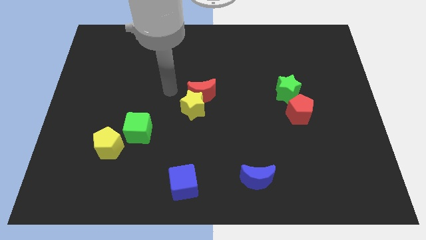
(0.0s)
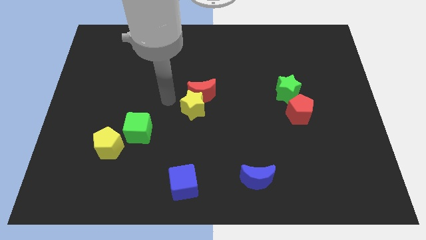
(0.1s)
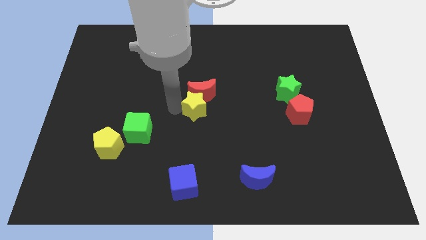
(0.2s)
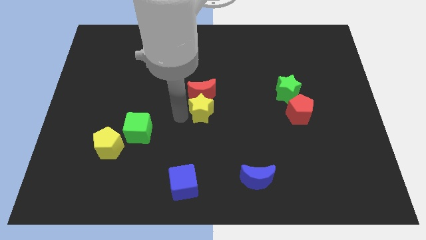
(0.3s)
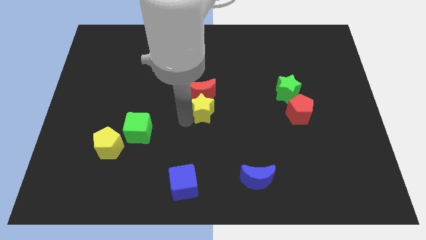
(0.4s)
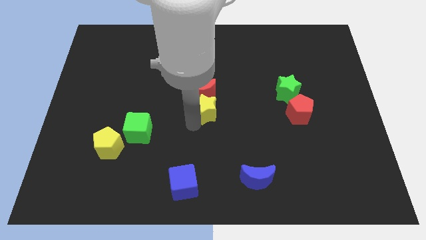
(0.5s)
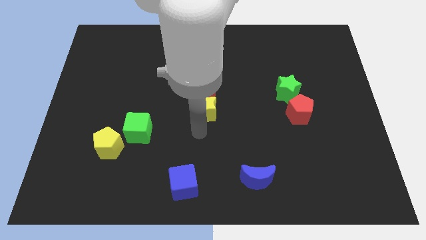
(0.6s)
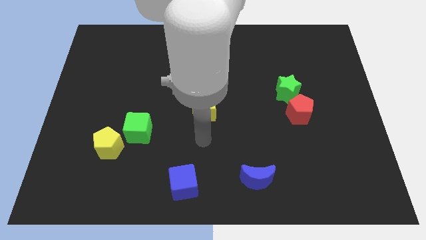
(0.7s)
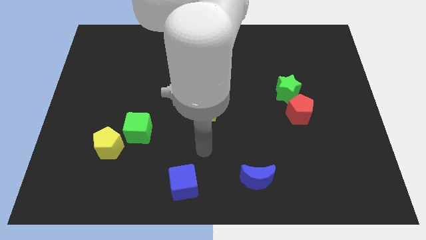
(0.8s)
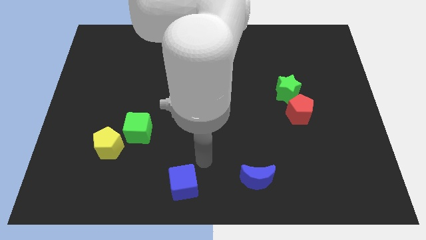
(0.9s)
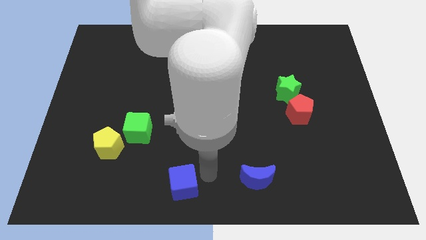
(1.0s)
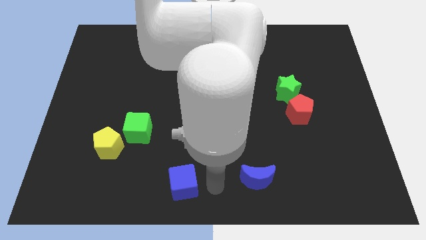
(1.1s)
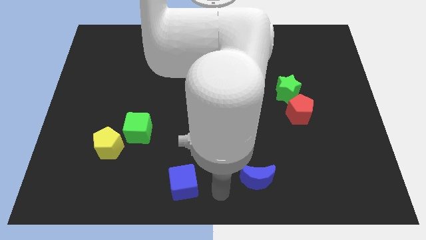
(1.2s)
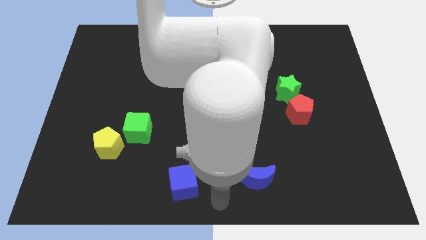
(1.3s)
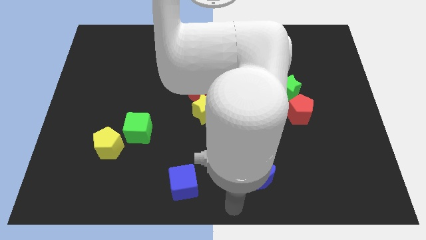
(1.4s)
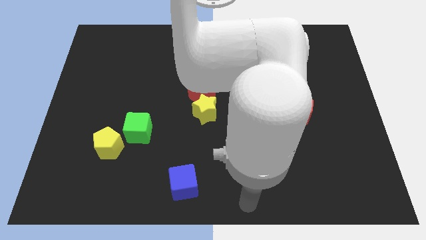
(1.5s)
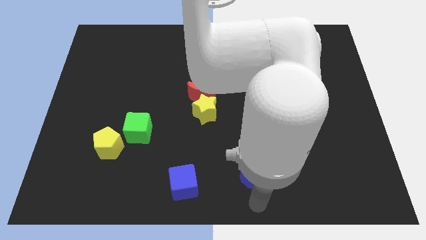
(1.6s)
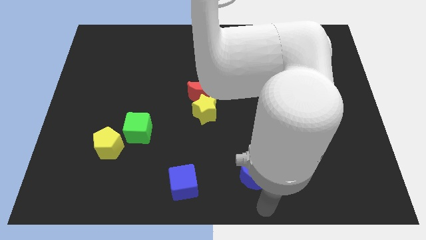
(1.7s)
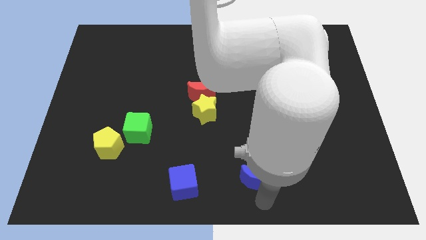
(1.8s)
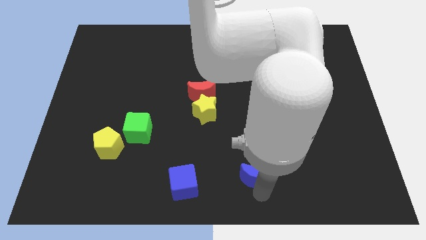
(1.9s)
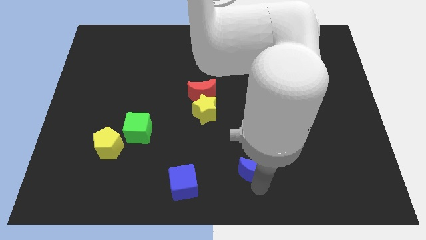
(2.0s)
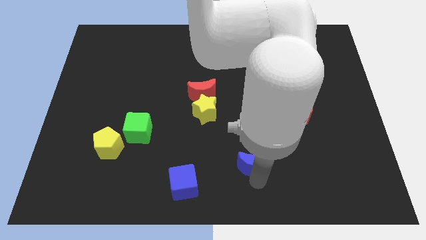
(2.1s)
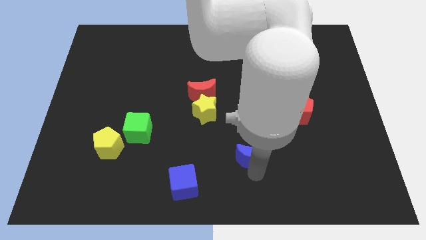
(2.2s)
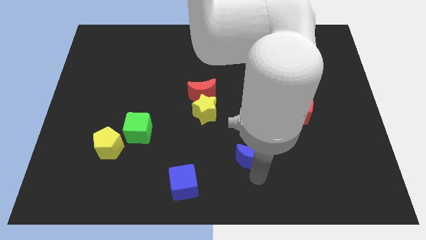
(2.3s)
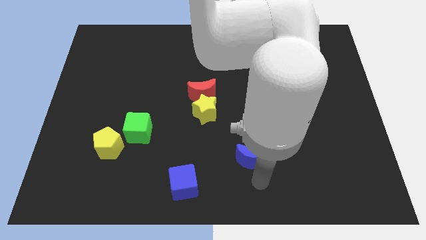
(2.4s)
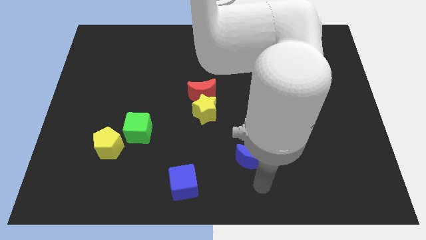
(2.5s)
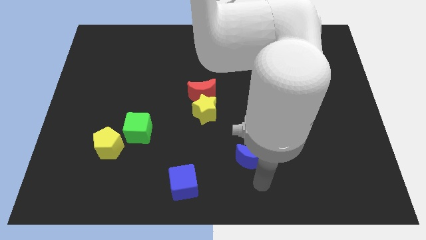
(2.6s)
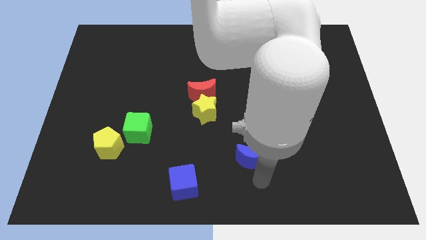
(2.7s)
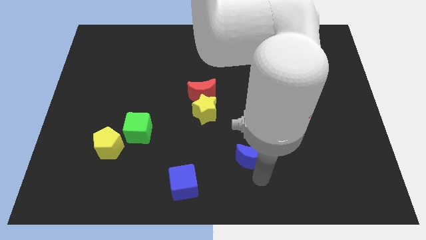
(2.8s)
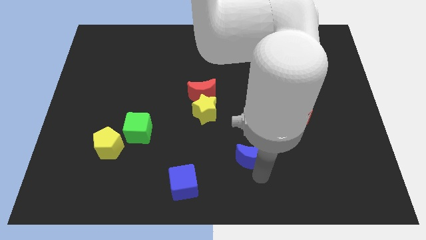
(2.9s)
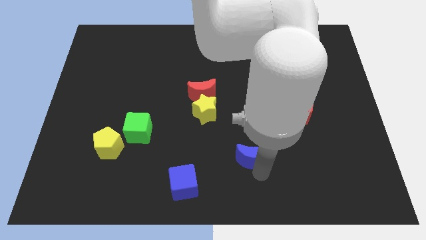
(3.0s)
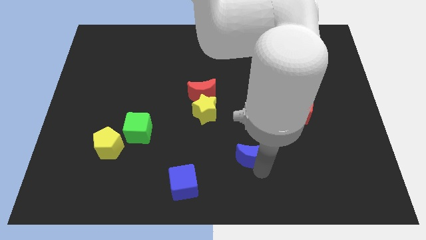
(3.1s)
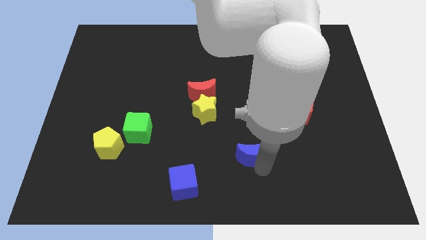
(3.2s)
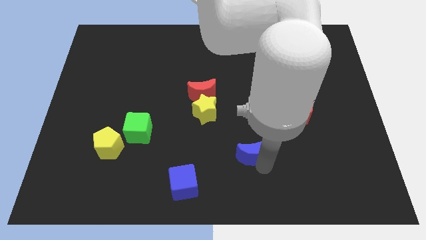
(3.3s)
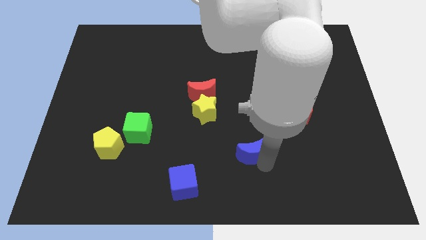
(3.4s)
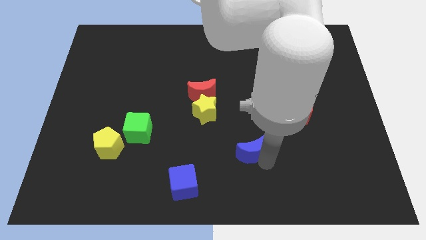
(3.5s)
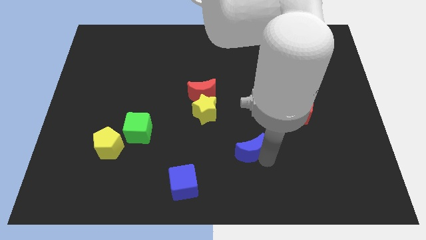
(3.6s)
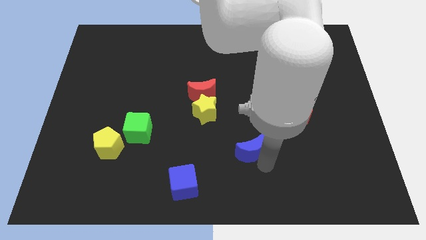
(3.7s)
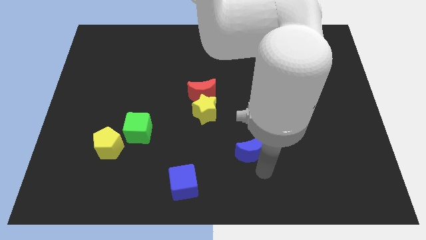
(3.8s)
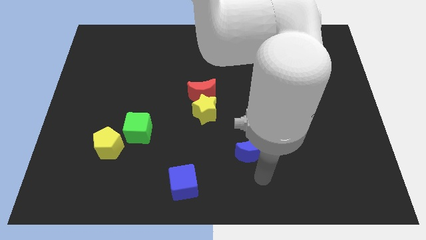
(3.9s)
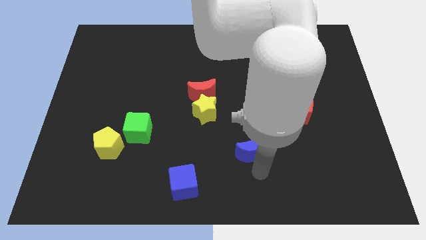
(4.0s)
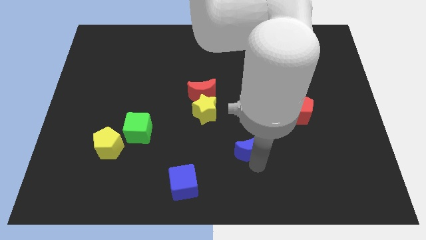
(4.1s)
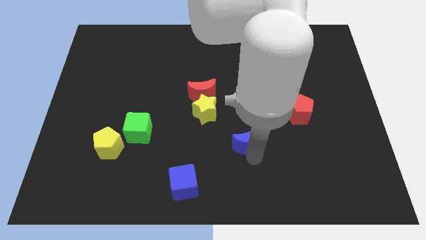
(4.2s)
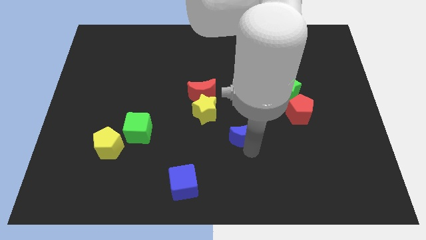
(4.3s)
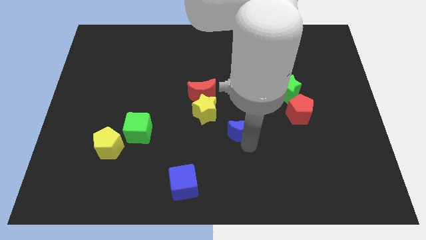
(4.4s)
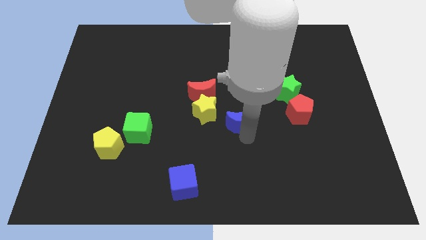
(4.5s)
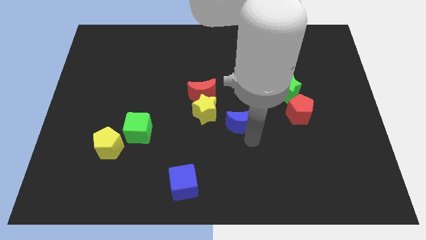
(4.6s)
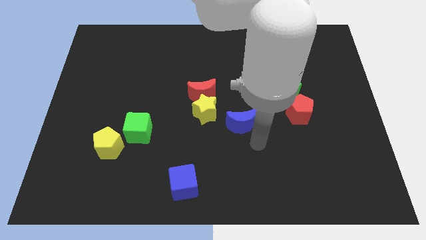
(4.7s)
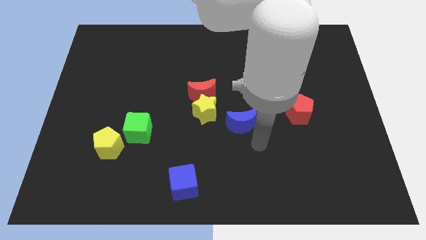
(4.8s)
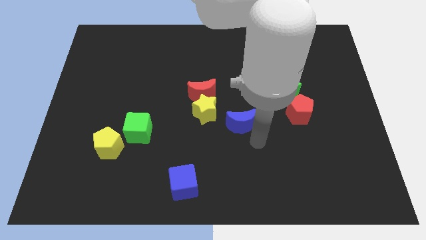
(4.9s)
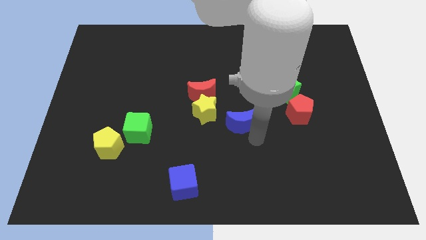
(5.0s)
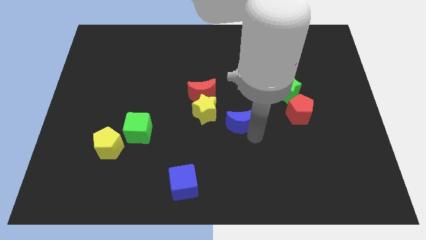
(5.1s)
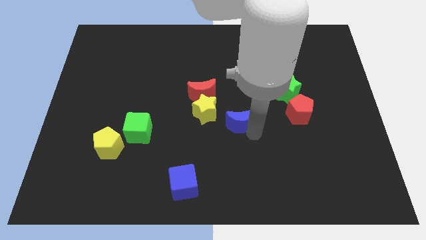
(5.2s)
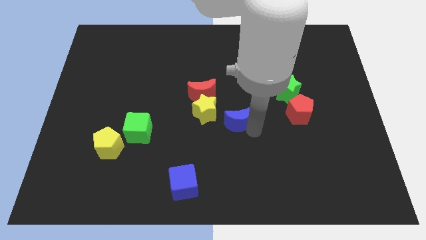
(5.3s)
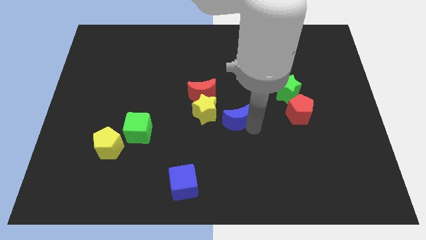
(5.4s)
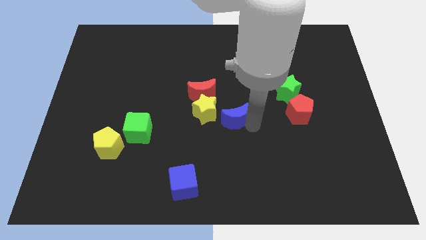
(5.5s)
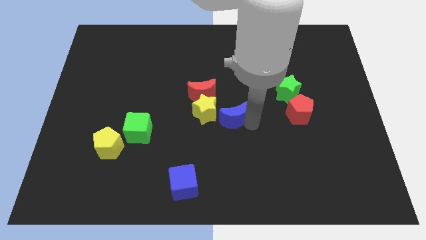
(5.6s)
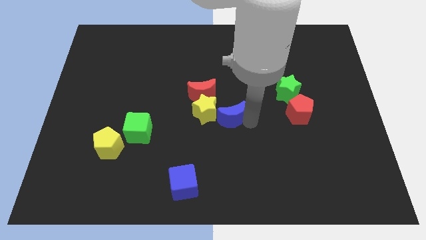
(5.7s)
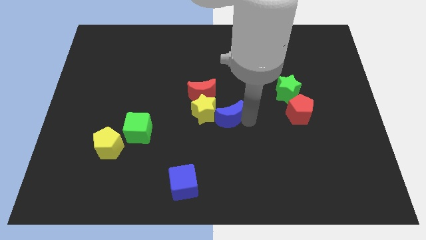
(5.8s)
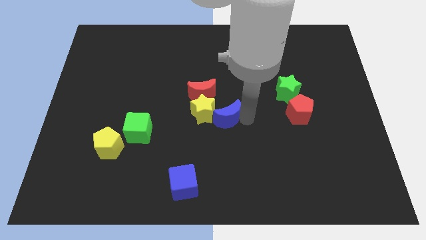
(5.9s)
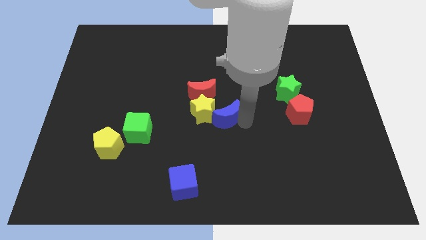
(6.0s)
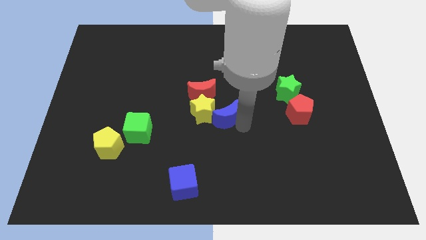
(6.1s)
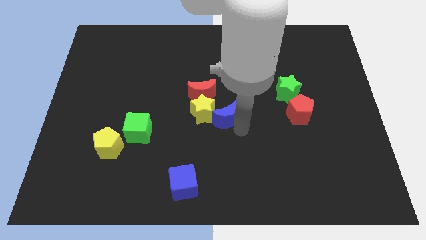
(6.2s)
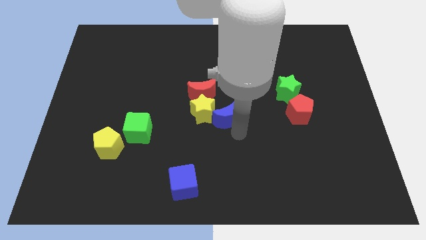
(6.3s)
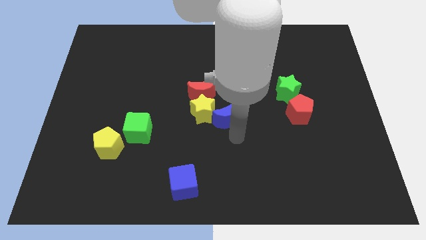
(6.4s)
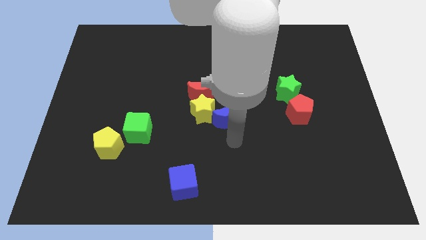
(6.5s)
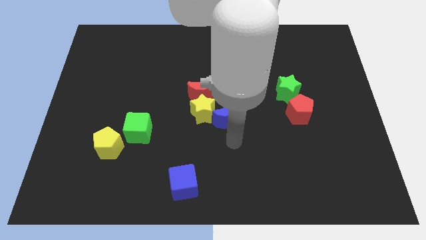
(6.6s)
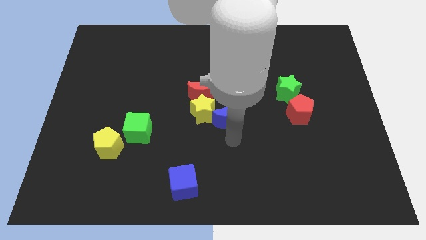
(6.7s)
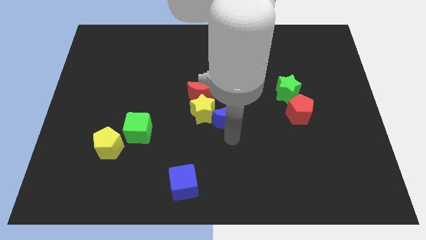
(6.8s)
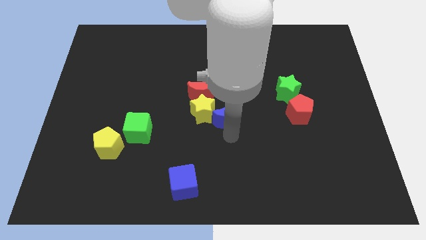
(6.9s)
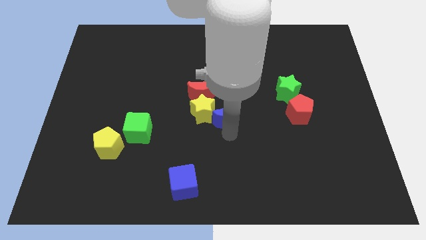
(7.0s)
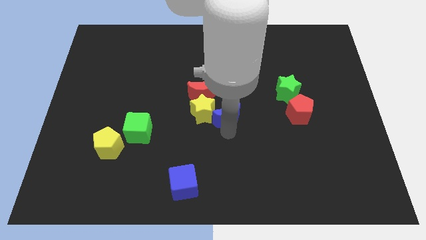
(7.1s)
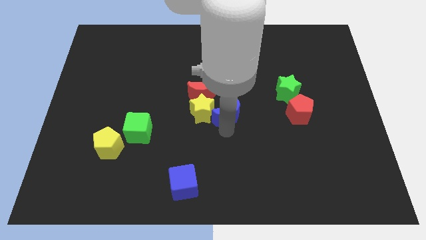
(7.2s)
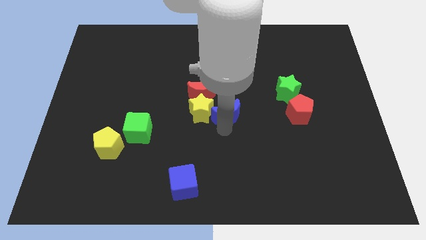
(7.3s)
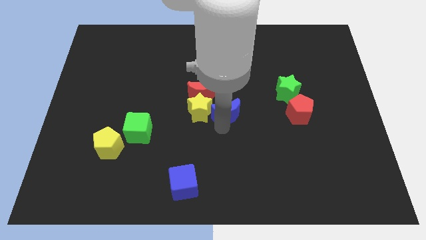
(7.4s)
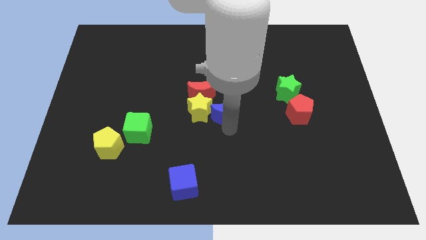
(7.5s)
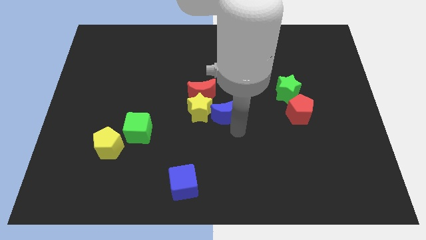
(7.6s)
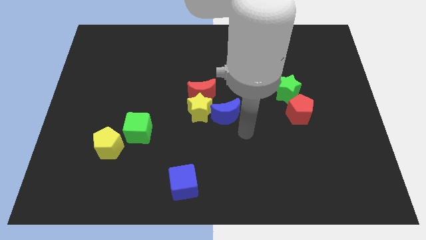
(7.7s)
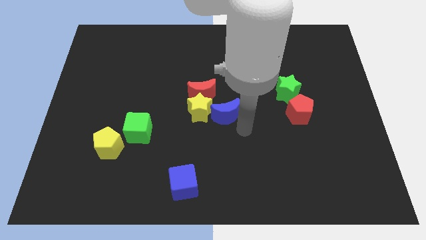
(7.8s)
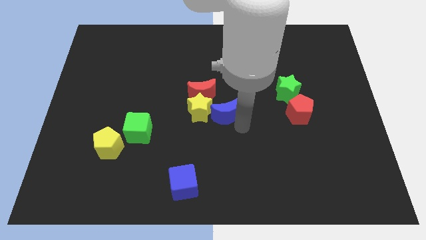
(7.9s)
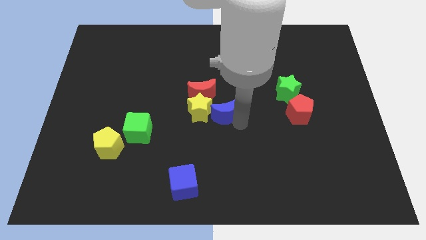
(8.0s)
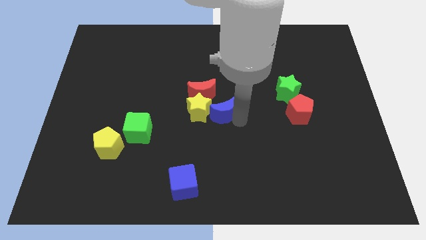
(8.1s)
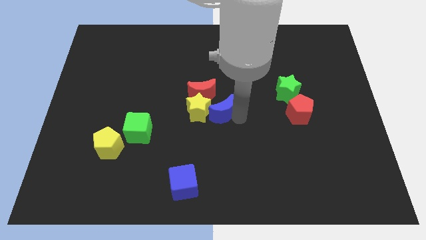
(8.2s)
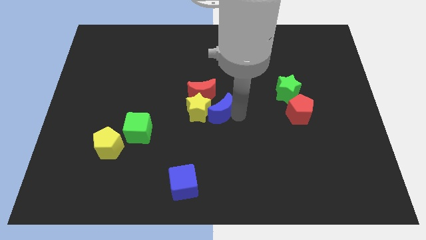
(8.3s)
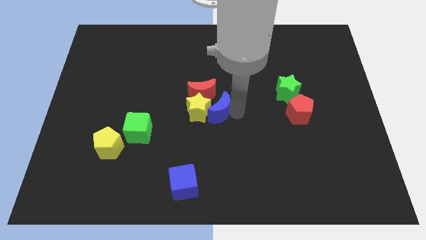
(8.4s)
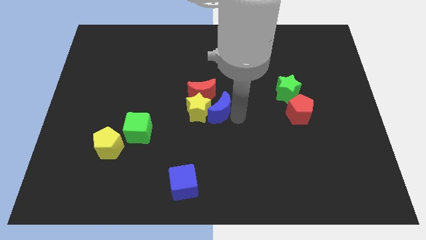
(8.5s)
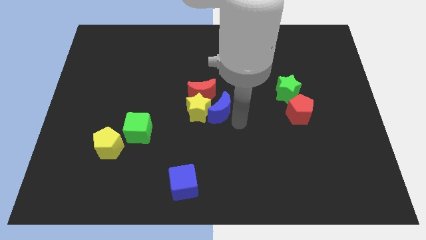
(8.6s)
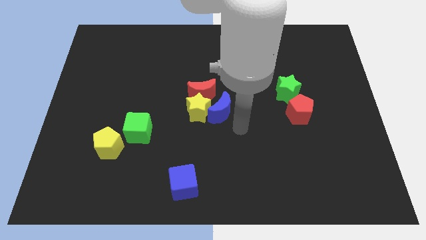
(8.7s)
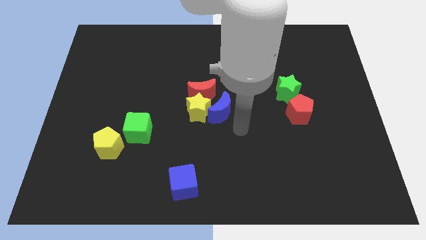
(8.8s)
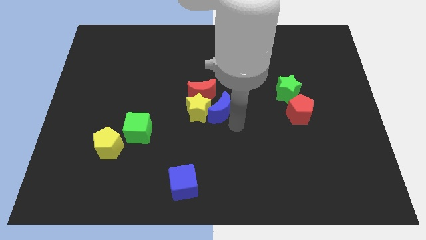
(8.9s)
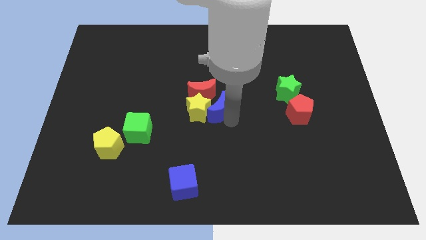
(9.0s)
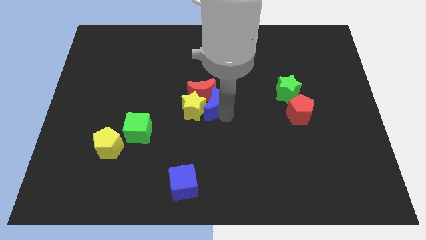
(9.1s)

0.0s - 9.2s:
move the blue moon next to the red moon
